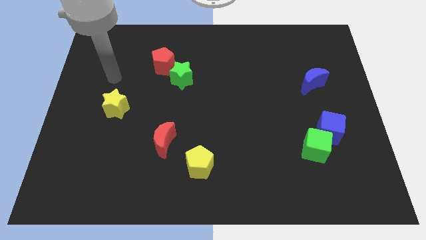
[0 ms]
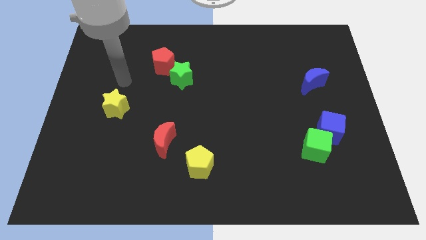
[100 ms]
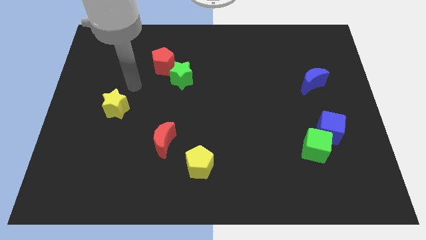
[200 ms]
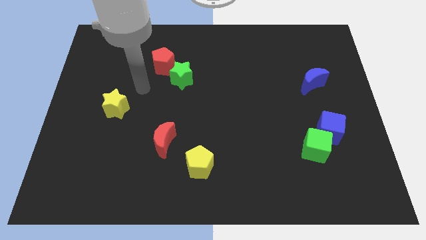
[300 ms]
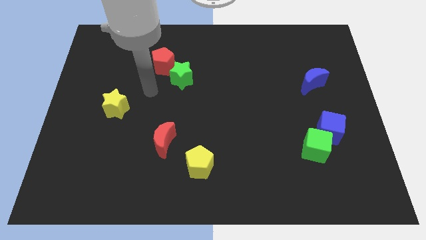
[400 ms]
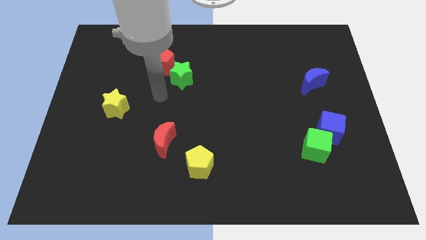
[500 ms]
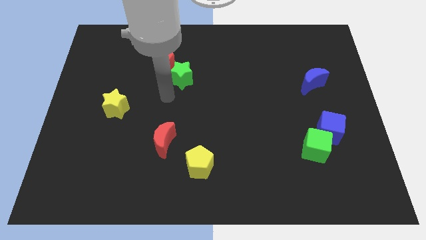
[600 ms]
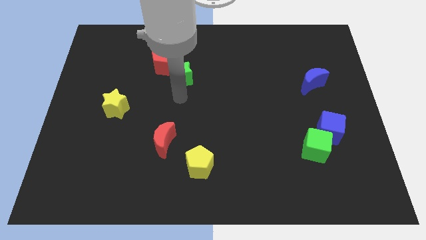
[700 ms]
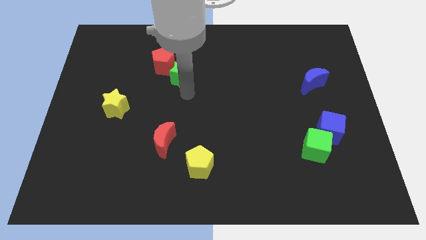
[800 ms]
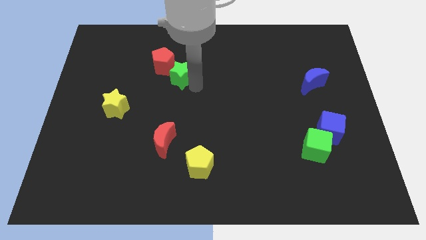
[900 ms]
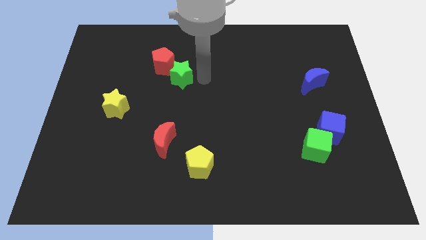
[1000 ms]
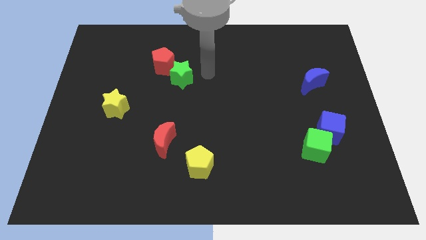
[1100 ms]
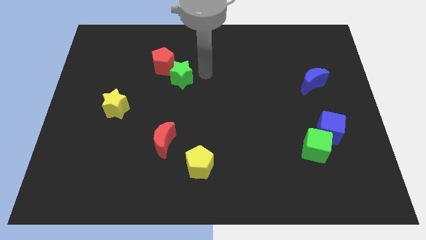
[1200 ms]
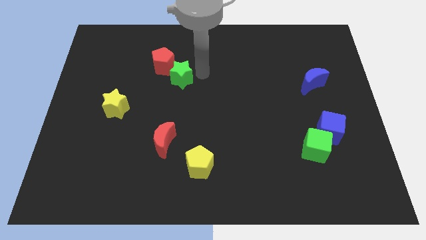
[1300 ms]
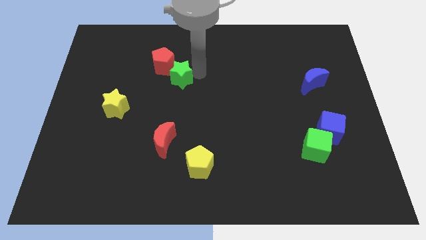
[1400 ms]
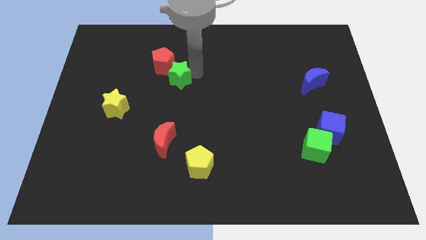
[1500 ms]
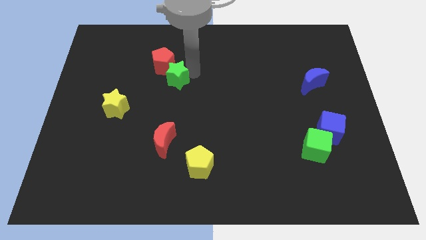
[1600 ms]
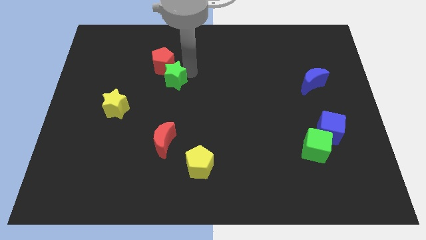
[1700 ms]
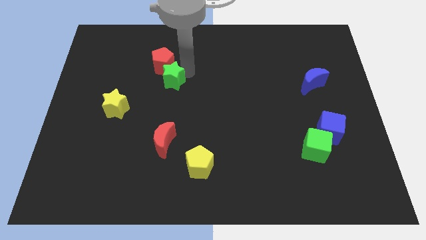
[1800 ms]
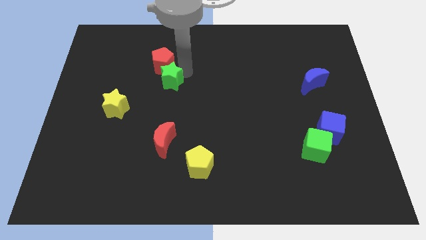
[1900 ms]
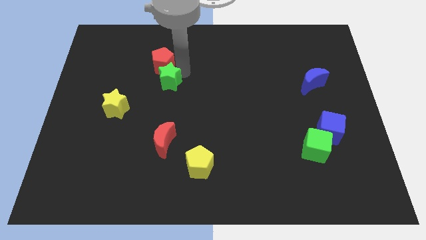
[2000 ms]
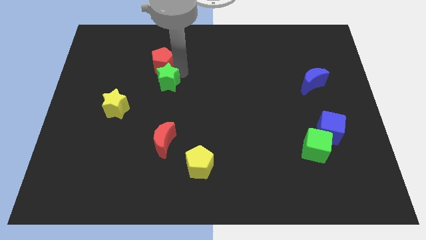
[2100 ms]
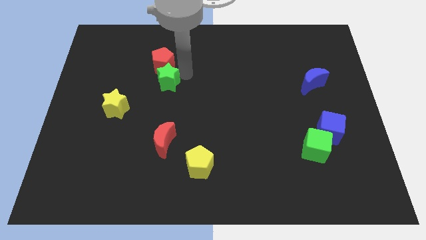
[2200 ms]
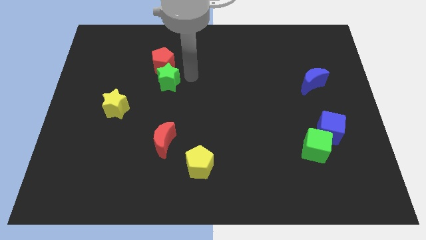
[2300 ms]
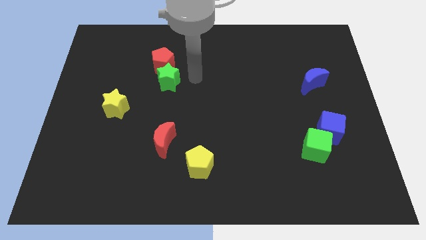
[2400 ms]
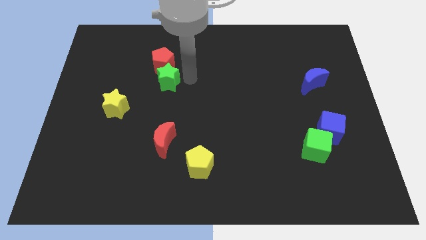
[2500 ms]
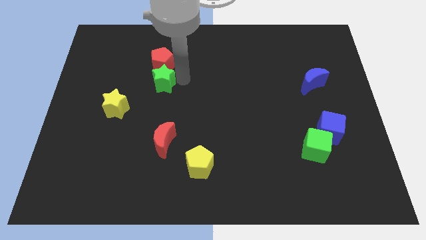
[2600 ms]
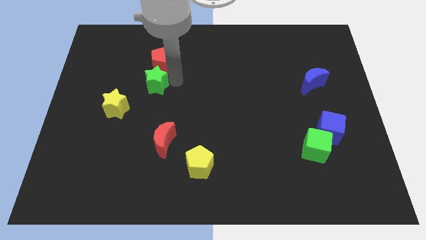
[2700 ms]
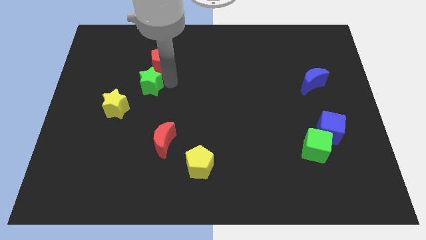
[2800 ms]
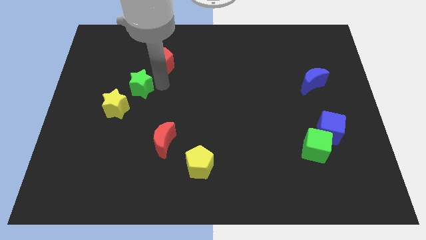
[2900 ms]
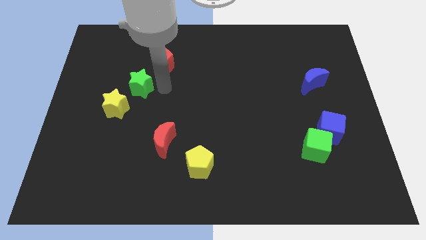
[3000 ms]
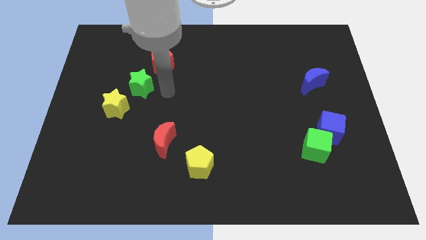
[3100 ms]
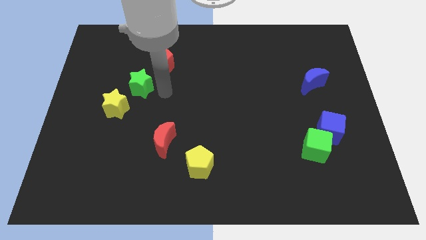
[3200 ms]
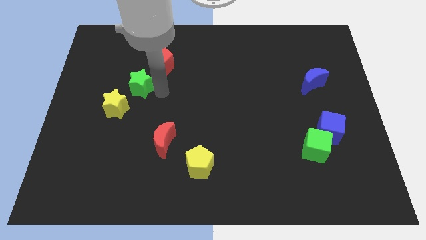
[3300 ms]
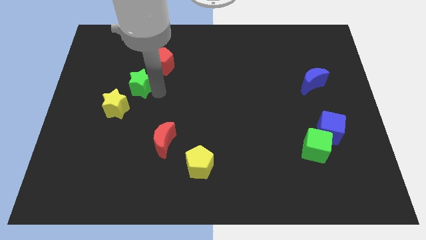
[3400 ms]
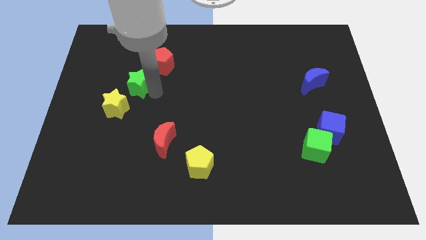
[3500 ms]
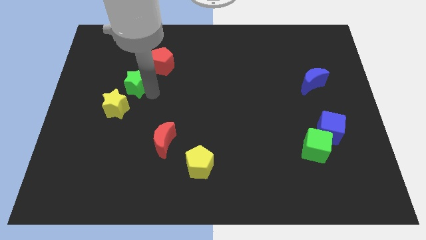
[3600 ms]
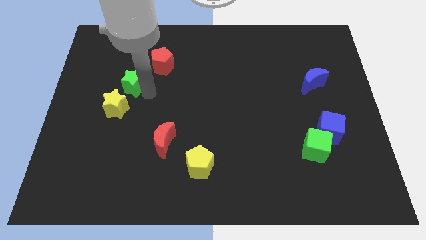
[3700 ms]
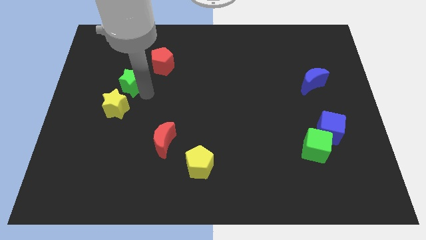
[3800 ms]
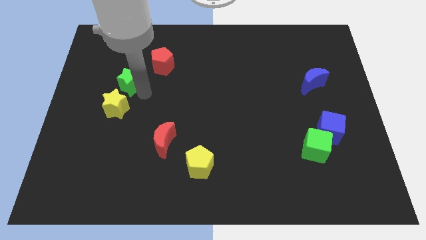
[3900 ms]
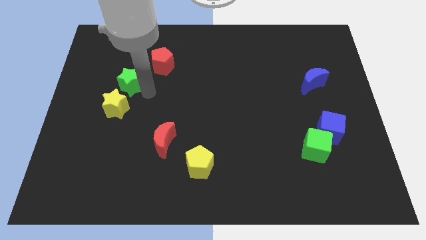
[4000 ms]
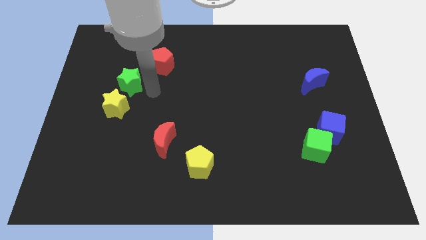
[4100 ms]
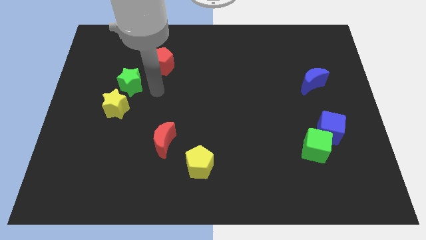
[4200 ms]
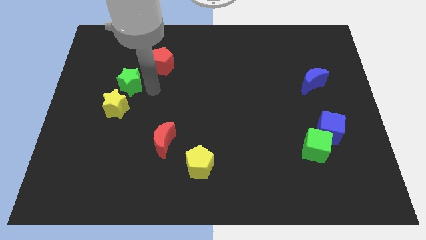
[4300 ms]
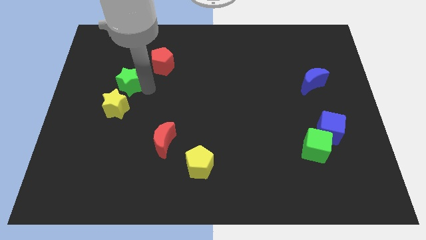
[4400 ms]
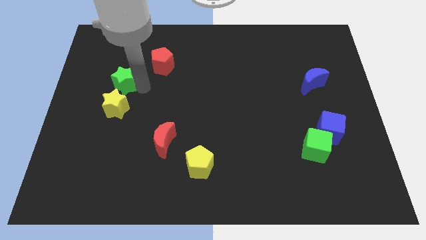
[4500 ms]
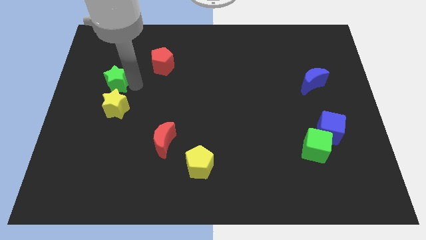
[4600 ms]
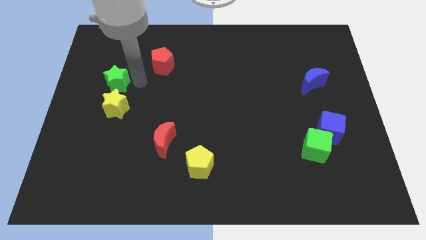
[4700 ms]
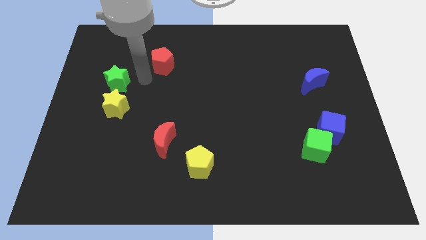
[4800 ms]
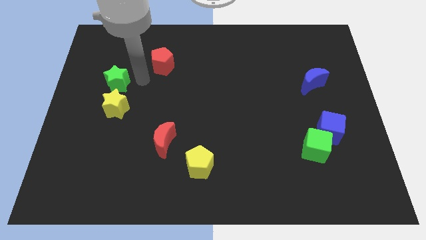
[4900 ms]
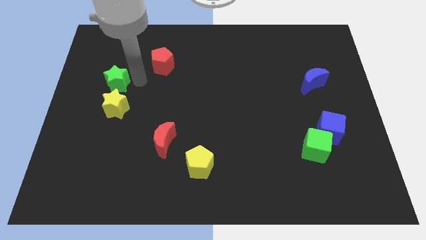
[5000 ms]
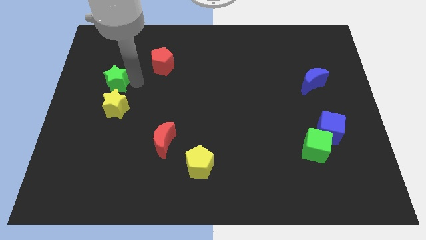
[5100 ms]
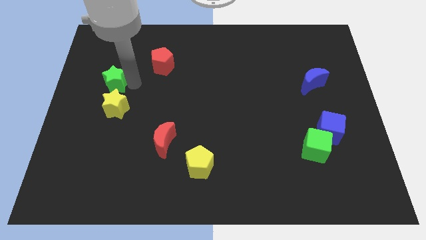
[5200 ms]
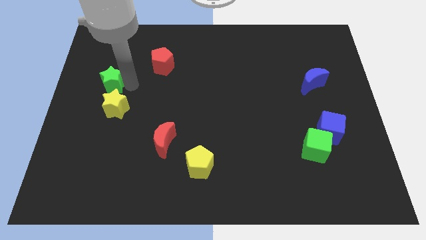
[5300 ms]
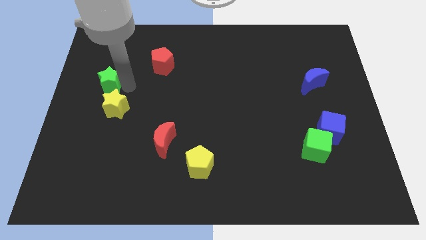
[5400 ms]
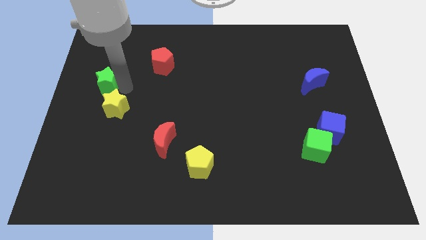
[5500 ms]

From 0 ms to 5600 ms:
slide the green star to the left side of the board

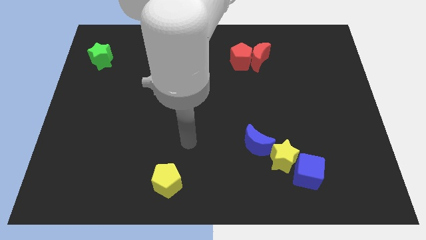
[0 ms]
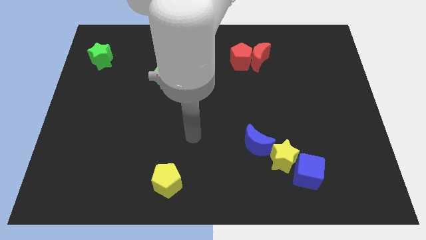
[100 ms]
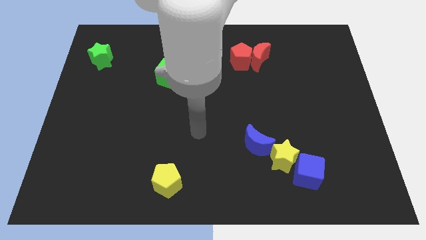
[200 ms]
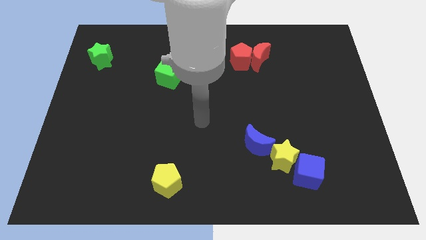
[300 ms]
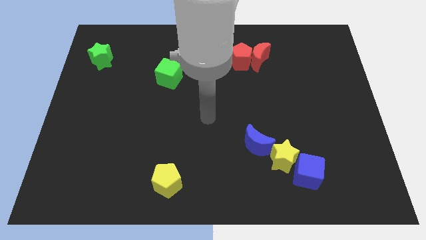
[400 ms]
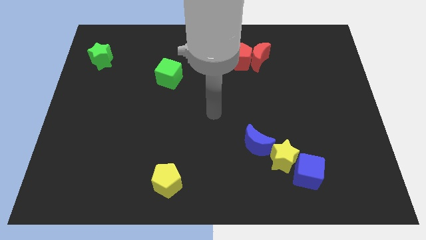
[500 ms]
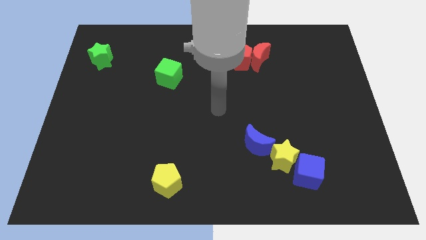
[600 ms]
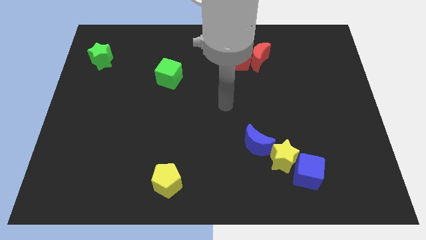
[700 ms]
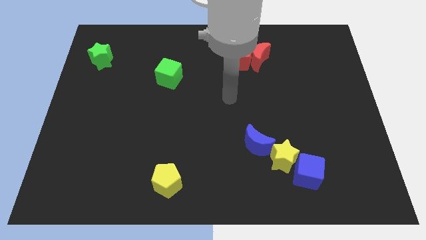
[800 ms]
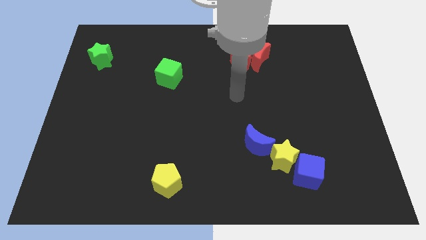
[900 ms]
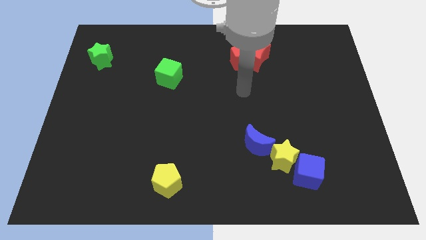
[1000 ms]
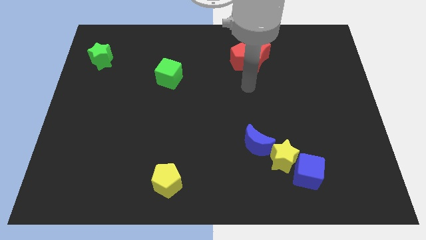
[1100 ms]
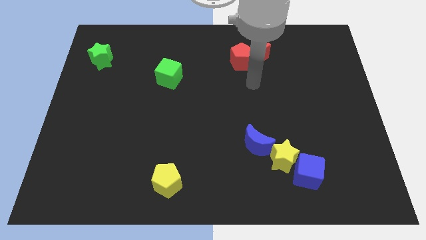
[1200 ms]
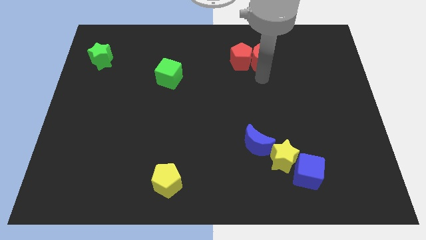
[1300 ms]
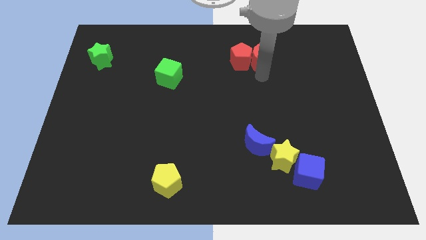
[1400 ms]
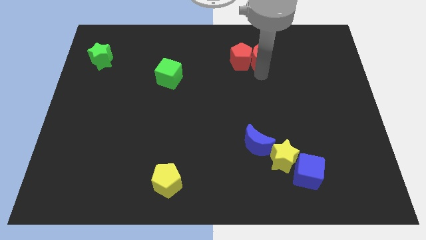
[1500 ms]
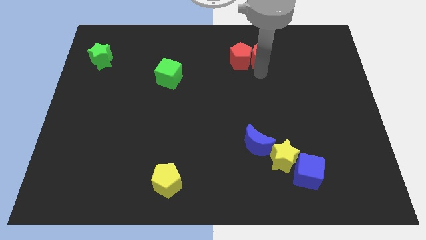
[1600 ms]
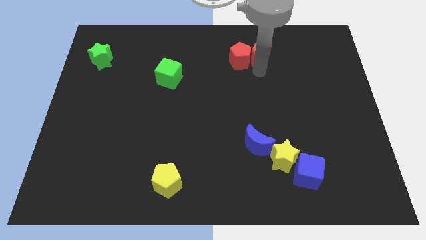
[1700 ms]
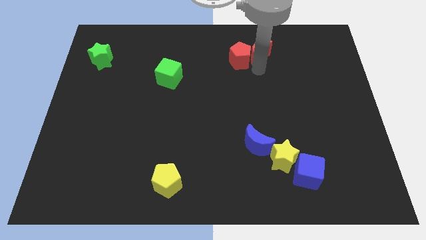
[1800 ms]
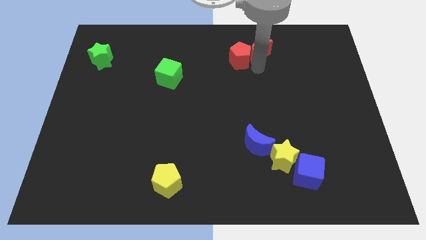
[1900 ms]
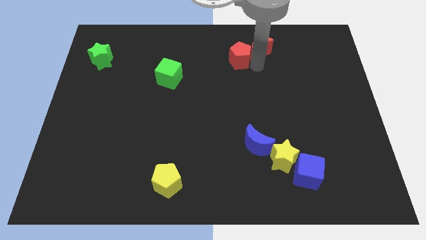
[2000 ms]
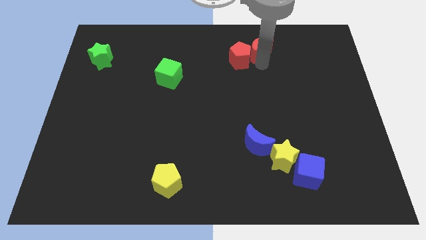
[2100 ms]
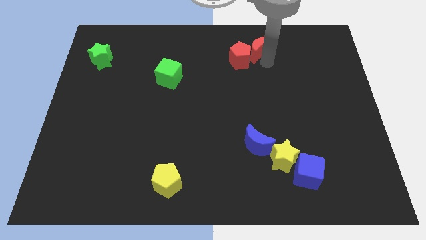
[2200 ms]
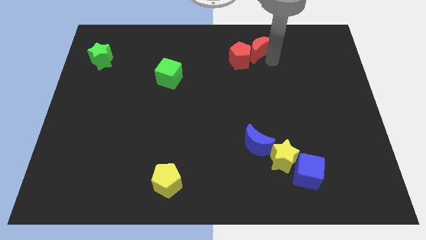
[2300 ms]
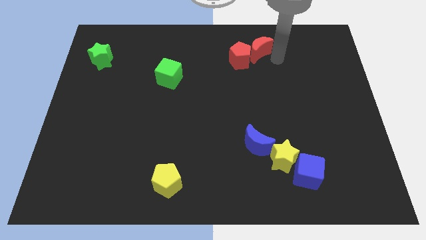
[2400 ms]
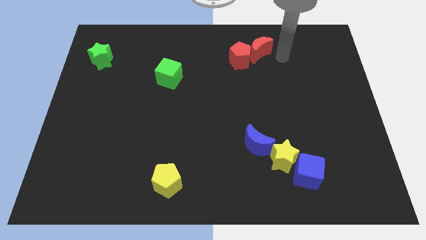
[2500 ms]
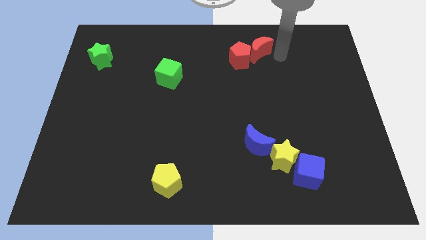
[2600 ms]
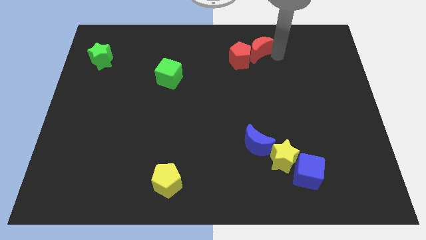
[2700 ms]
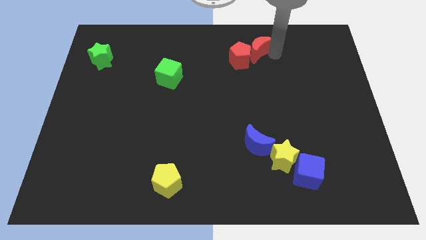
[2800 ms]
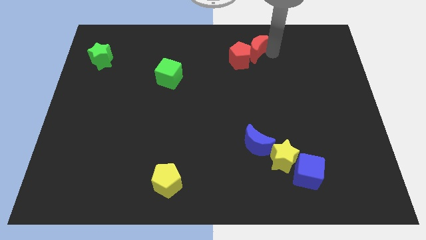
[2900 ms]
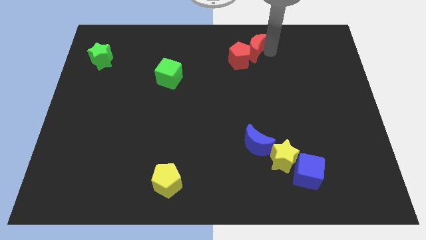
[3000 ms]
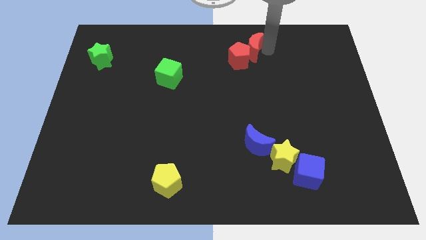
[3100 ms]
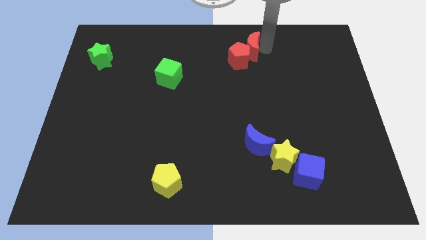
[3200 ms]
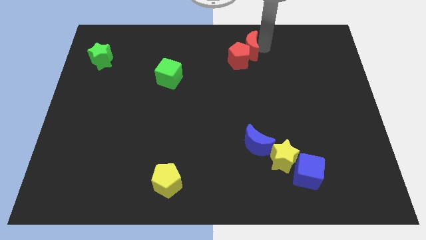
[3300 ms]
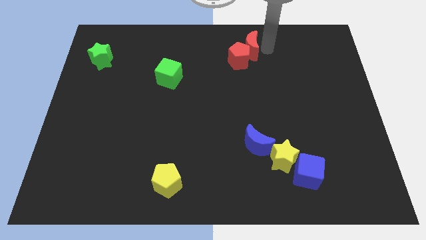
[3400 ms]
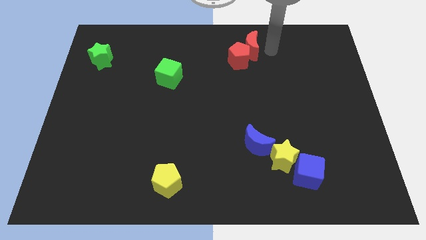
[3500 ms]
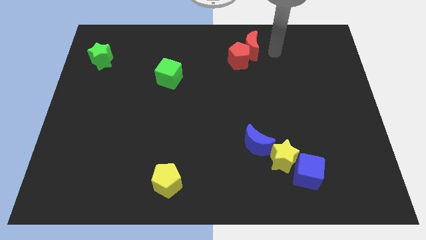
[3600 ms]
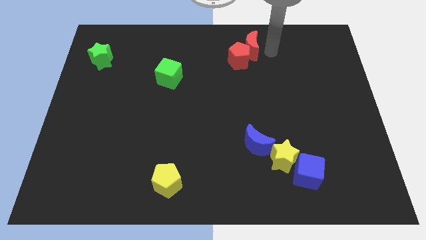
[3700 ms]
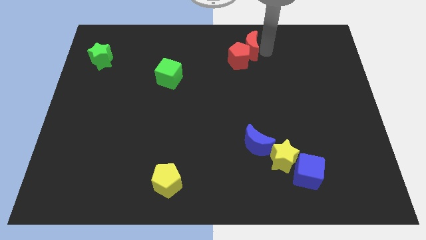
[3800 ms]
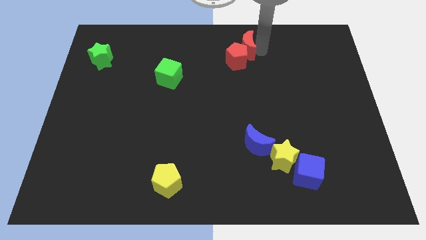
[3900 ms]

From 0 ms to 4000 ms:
put the red moon to the top side
